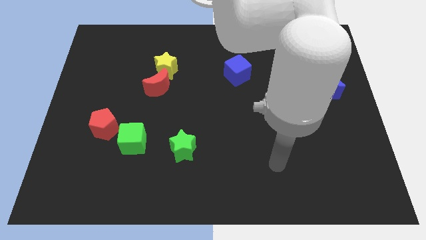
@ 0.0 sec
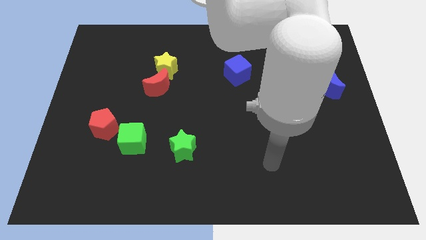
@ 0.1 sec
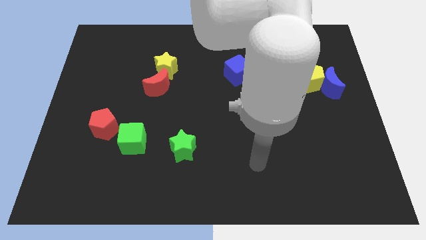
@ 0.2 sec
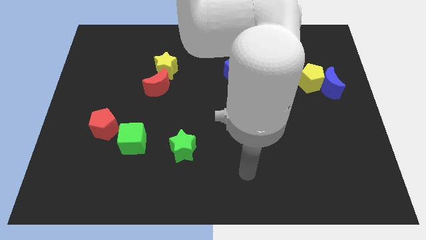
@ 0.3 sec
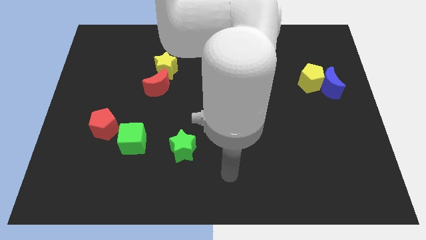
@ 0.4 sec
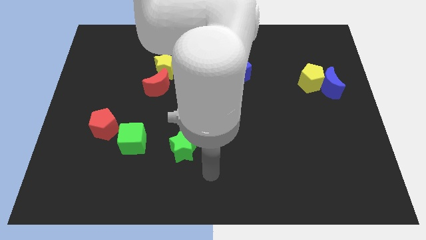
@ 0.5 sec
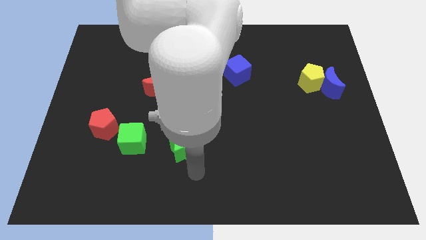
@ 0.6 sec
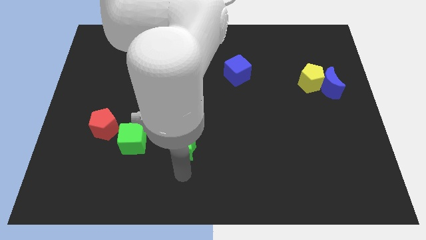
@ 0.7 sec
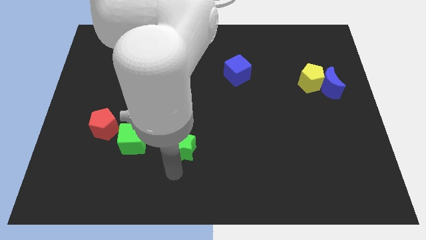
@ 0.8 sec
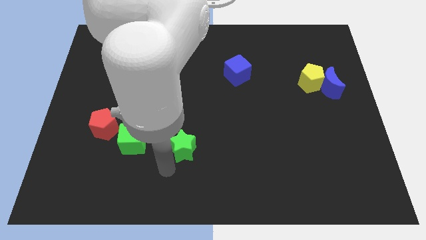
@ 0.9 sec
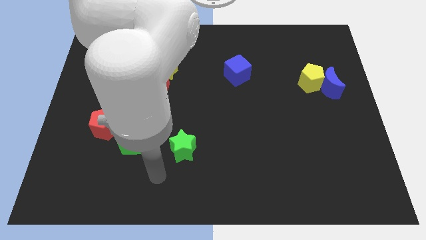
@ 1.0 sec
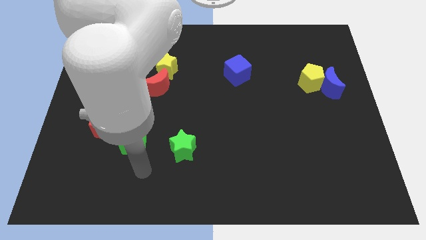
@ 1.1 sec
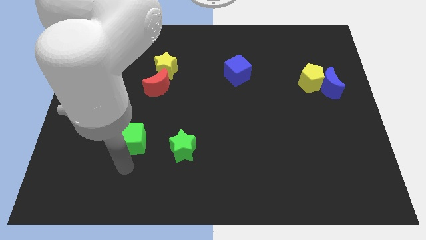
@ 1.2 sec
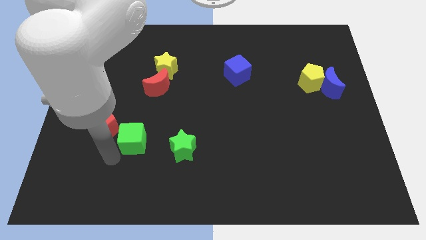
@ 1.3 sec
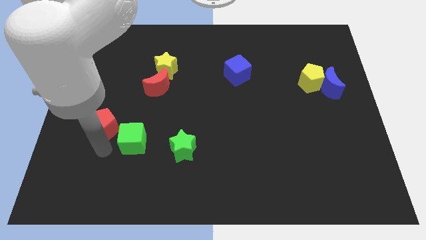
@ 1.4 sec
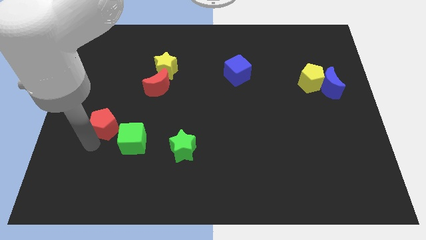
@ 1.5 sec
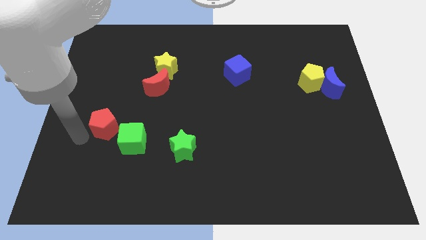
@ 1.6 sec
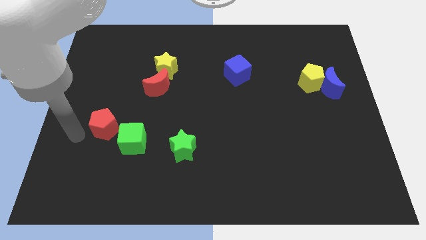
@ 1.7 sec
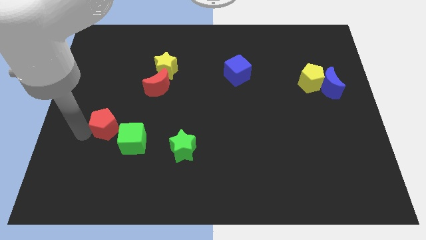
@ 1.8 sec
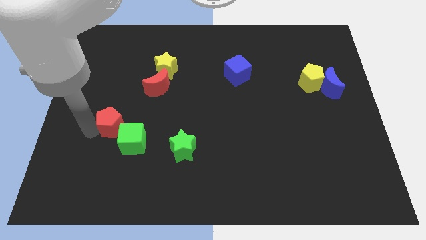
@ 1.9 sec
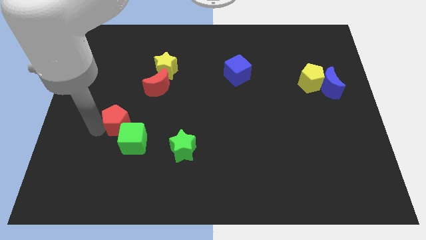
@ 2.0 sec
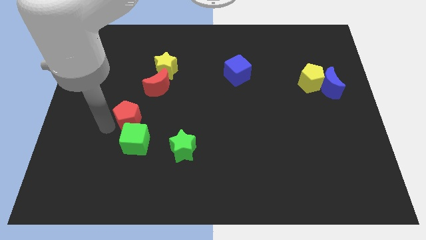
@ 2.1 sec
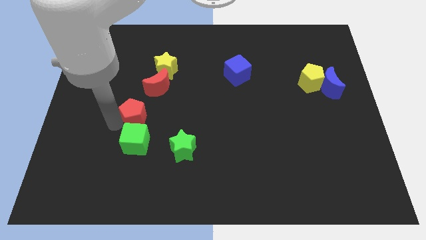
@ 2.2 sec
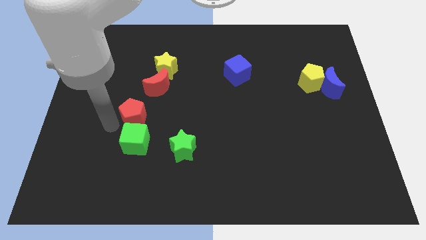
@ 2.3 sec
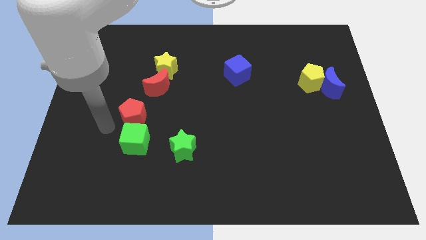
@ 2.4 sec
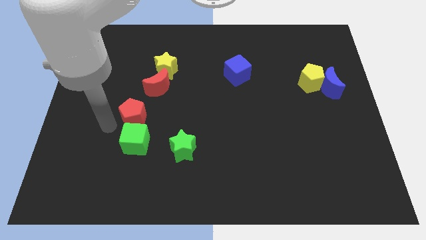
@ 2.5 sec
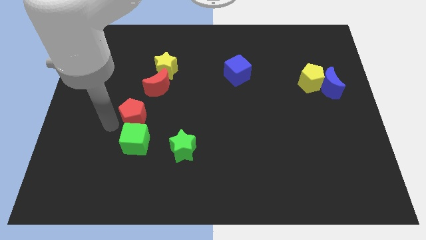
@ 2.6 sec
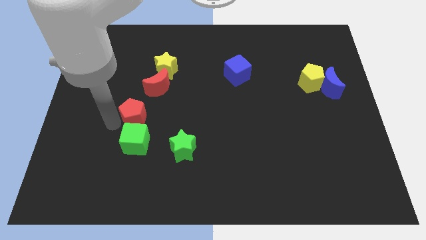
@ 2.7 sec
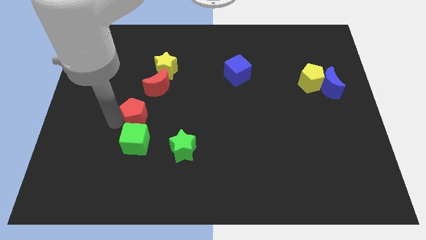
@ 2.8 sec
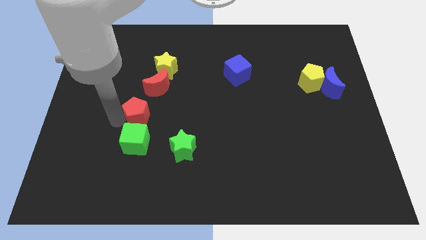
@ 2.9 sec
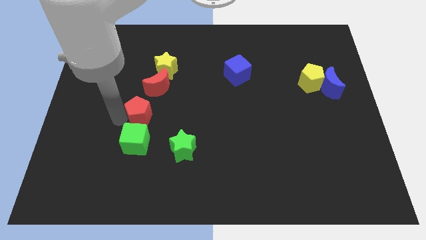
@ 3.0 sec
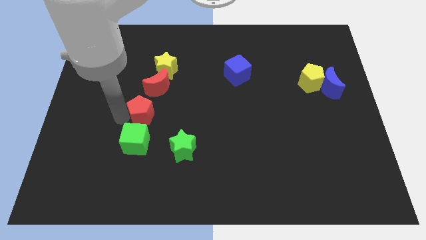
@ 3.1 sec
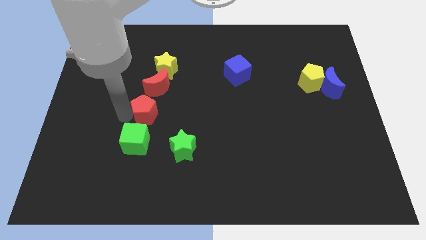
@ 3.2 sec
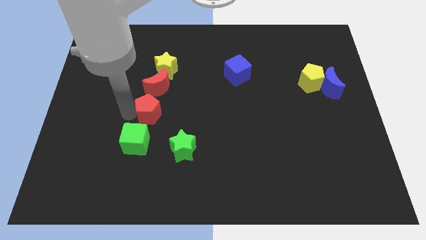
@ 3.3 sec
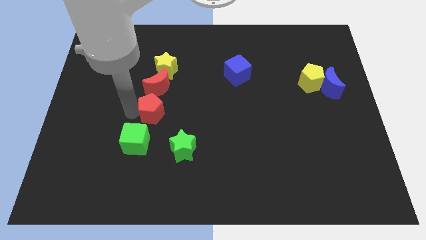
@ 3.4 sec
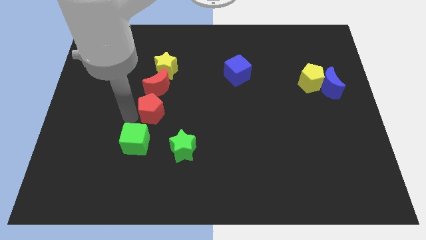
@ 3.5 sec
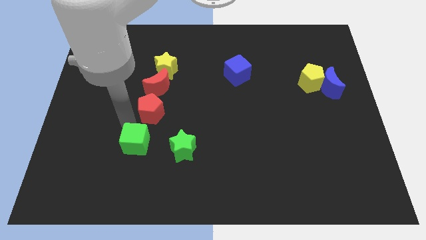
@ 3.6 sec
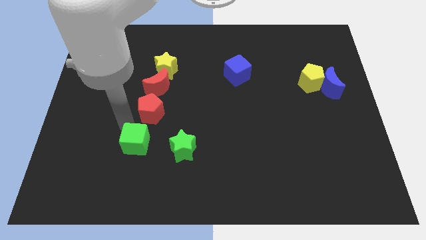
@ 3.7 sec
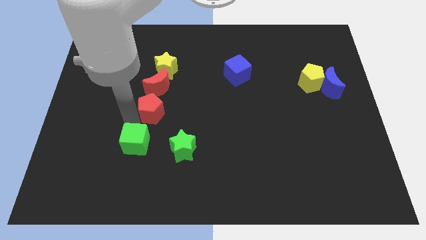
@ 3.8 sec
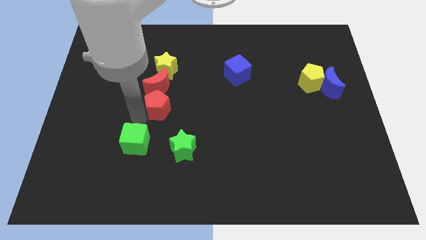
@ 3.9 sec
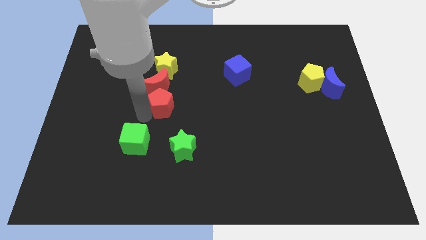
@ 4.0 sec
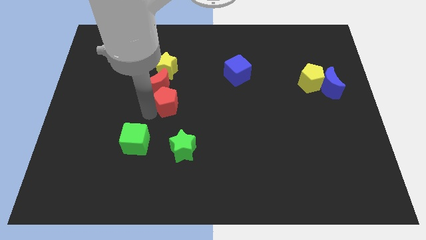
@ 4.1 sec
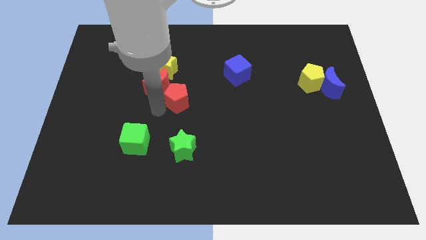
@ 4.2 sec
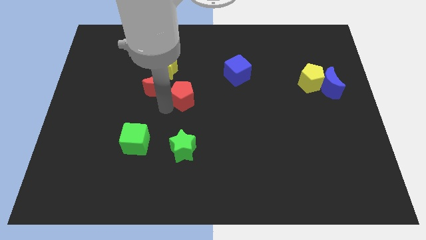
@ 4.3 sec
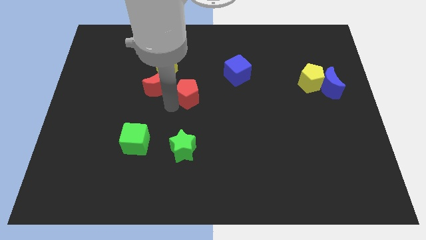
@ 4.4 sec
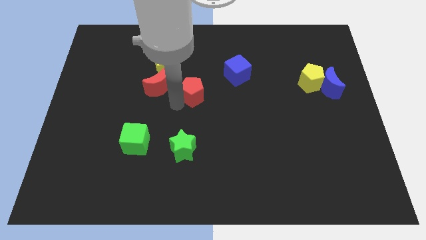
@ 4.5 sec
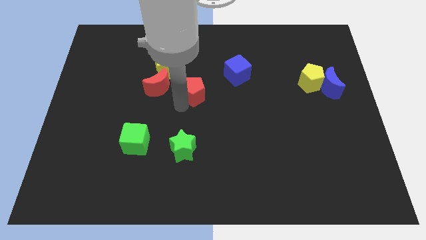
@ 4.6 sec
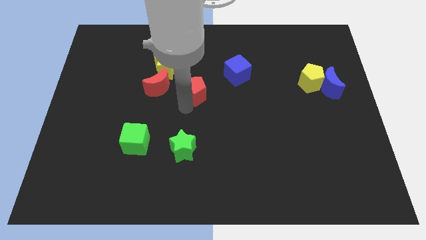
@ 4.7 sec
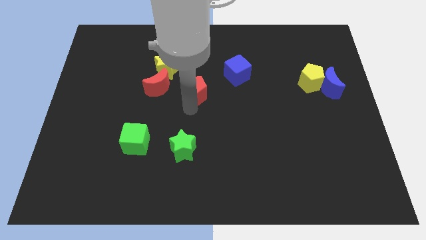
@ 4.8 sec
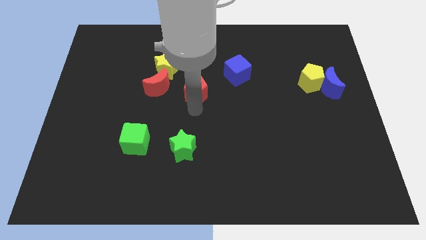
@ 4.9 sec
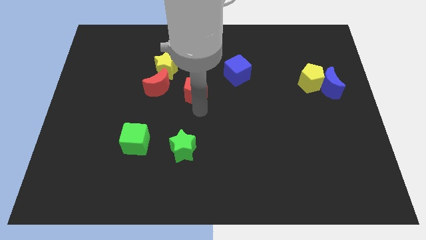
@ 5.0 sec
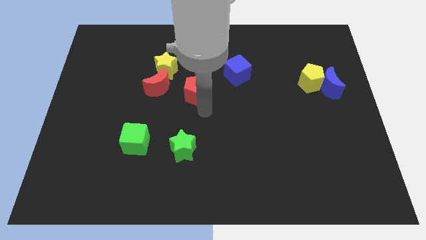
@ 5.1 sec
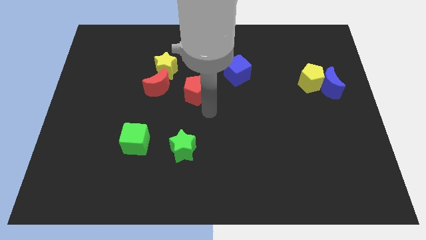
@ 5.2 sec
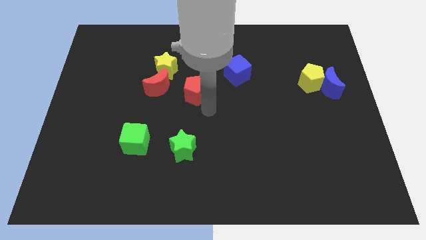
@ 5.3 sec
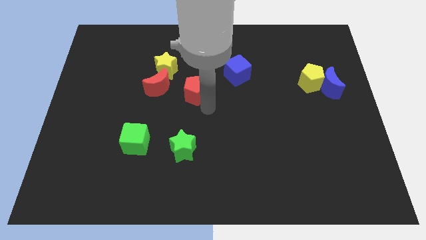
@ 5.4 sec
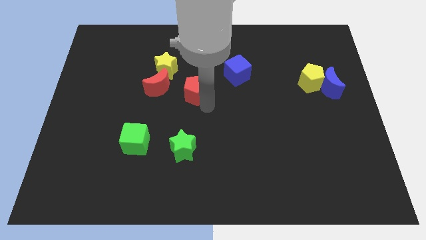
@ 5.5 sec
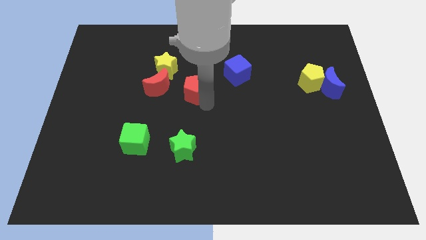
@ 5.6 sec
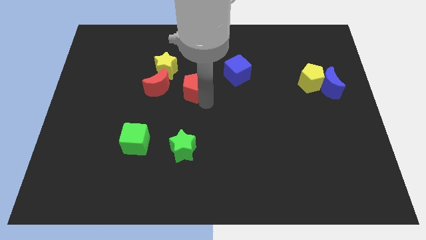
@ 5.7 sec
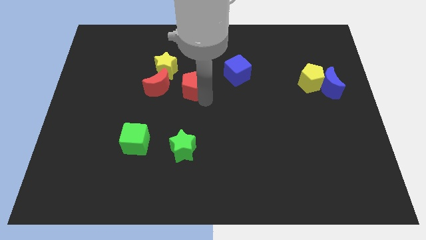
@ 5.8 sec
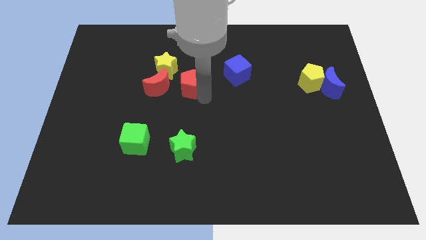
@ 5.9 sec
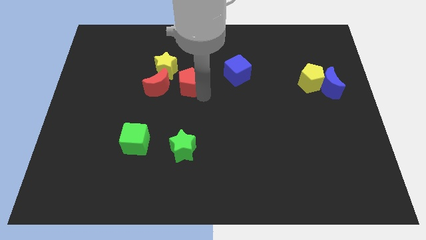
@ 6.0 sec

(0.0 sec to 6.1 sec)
move the red pentagon diagonally up and to the right of the red moon
